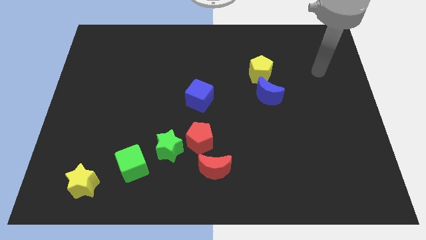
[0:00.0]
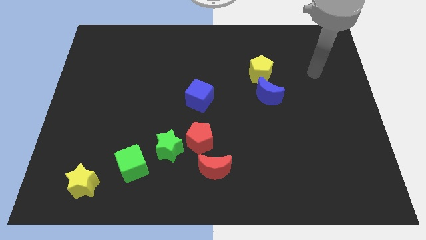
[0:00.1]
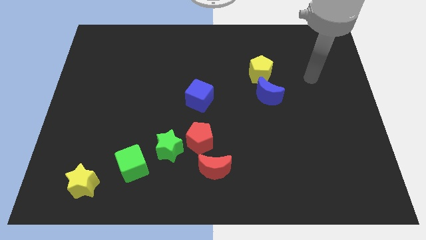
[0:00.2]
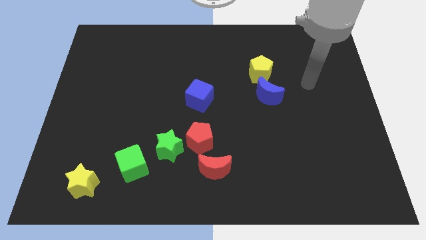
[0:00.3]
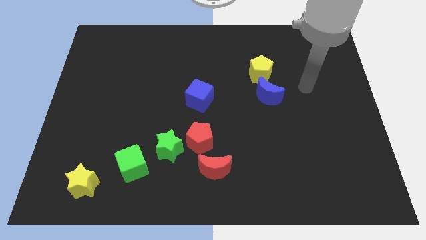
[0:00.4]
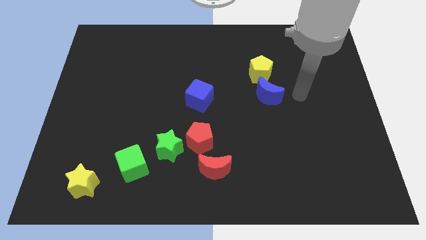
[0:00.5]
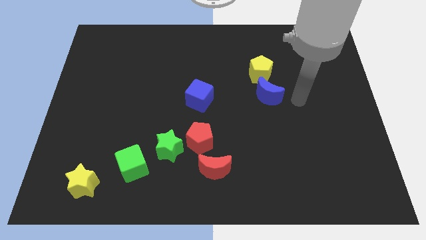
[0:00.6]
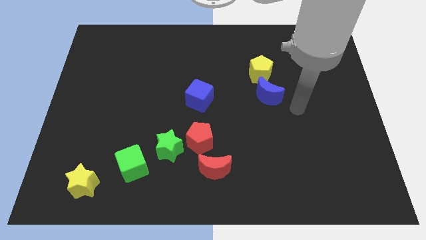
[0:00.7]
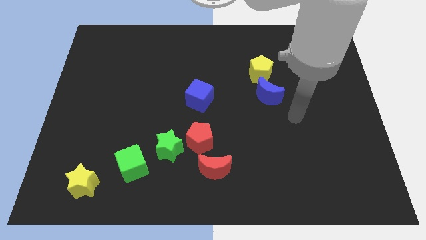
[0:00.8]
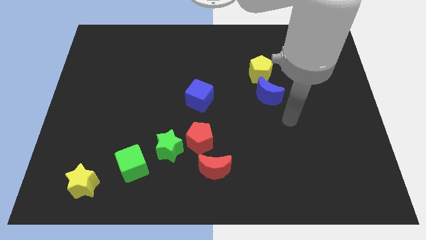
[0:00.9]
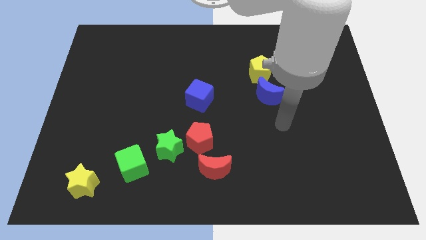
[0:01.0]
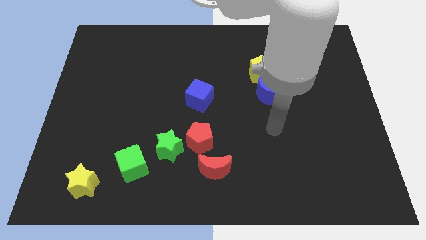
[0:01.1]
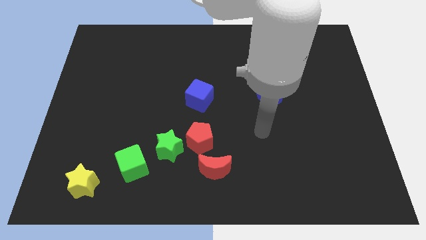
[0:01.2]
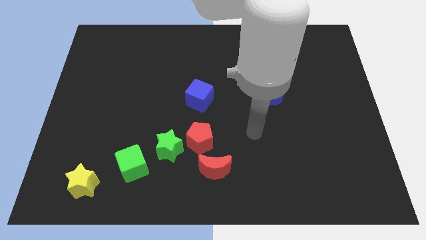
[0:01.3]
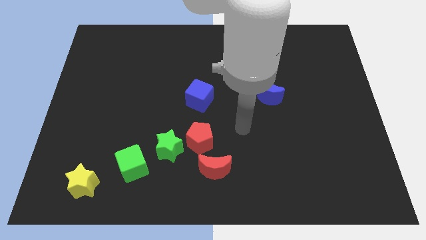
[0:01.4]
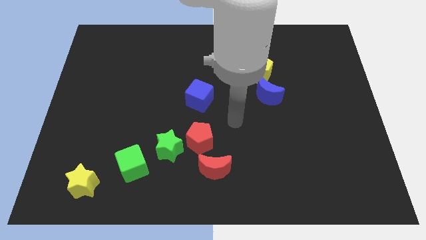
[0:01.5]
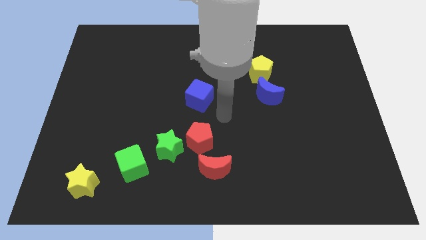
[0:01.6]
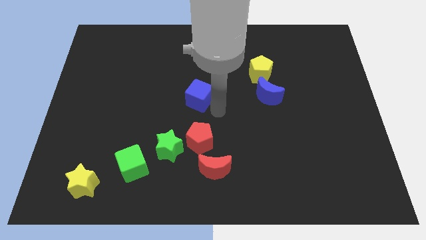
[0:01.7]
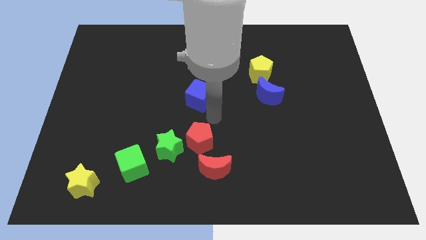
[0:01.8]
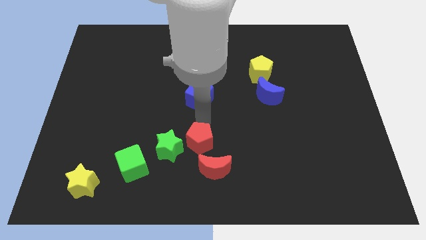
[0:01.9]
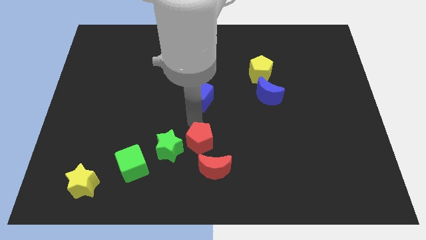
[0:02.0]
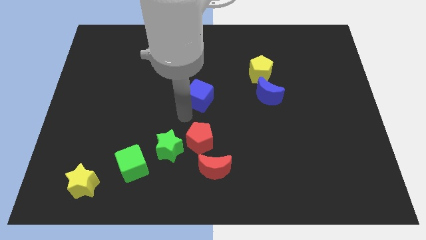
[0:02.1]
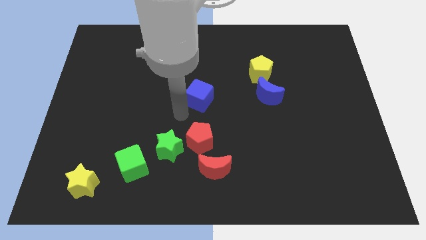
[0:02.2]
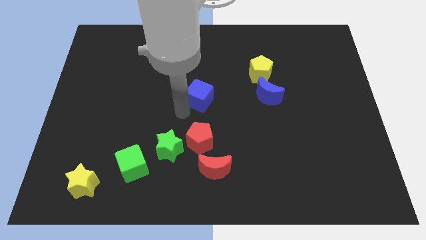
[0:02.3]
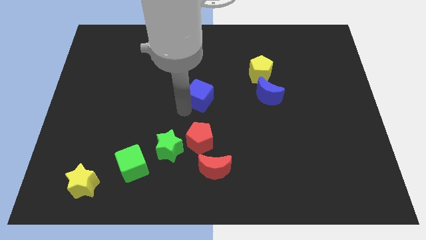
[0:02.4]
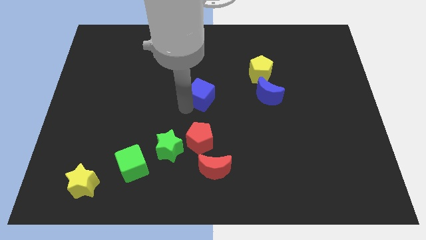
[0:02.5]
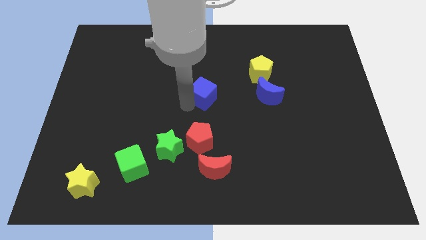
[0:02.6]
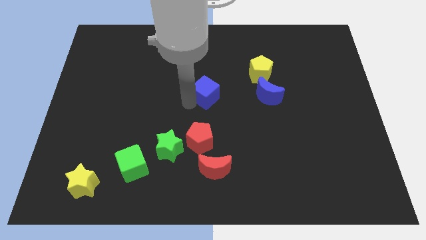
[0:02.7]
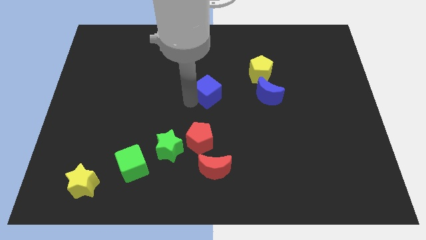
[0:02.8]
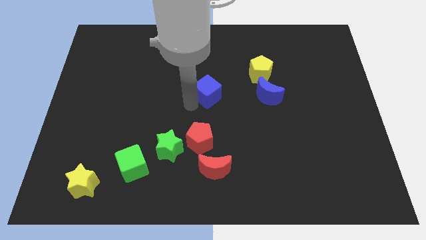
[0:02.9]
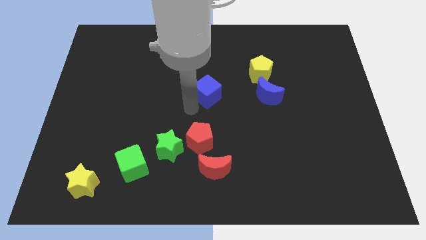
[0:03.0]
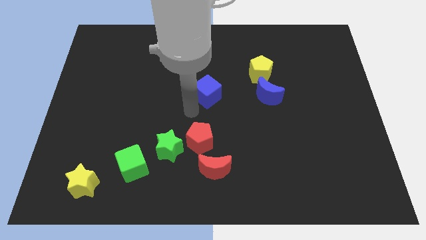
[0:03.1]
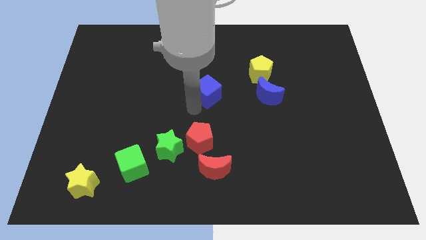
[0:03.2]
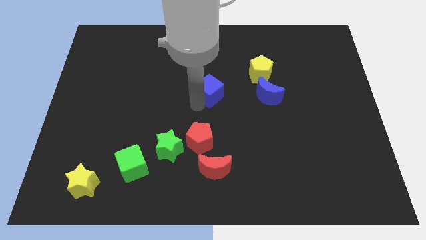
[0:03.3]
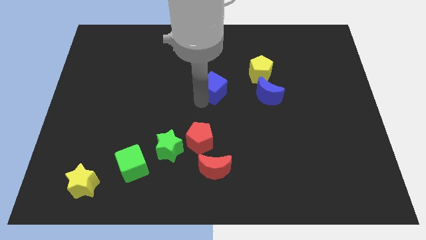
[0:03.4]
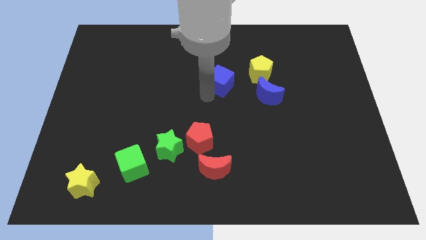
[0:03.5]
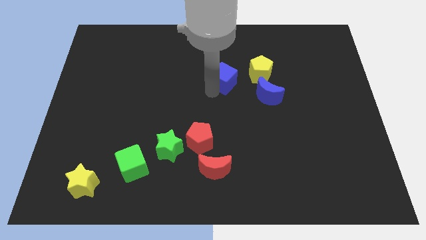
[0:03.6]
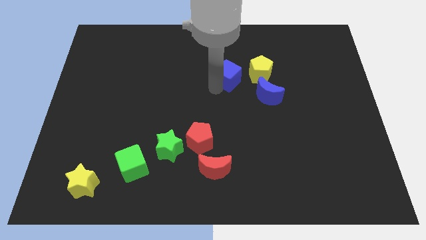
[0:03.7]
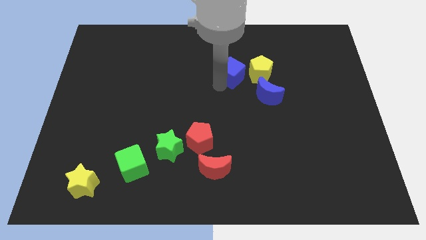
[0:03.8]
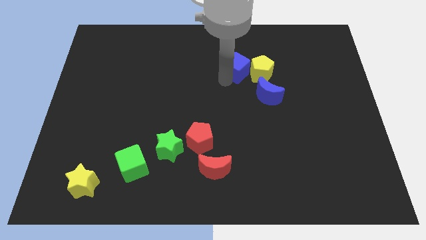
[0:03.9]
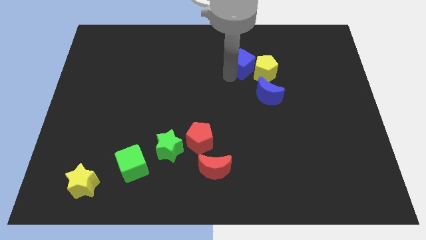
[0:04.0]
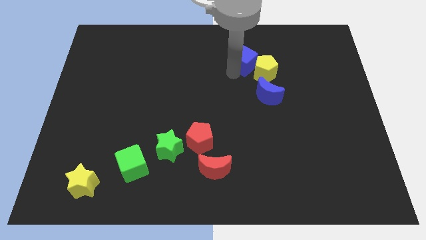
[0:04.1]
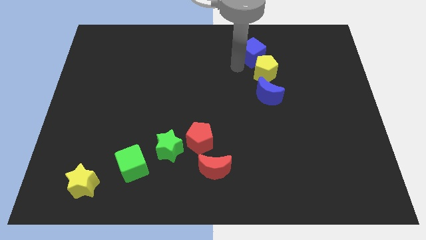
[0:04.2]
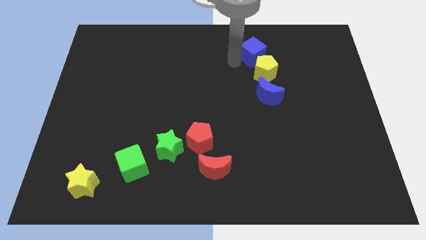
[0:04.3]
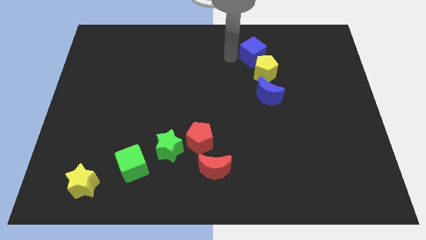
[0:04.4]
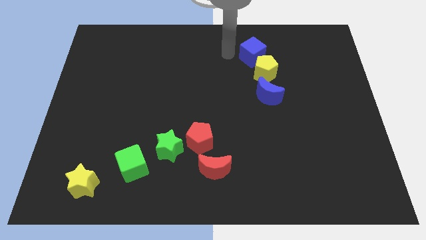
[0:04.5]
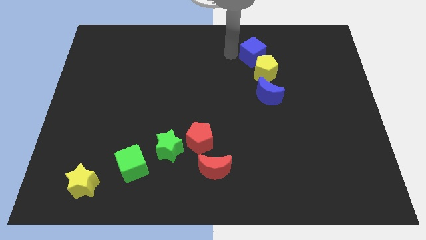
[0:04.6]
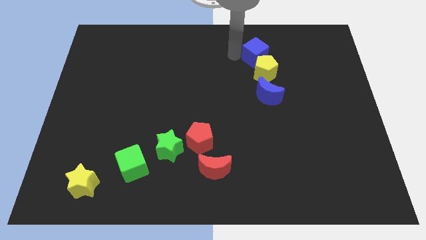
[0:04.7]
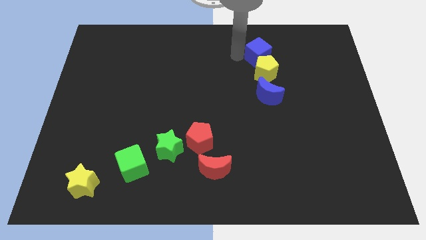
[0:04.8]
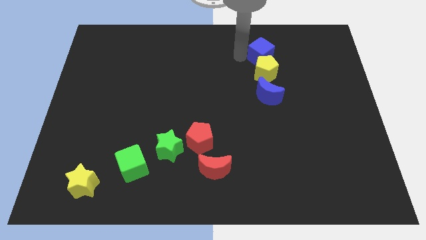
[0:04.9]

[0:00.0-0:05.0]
push the blue cube to the top right side of the yellow pentagon

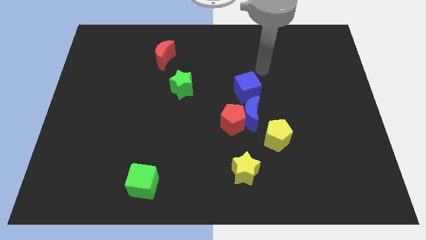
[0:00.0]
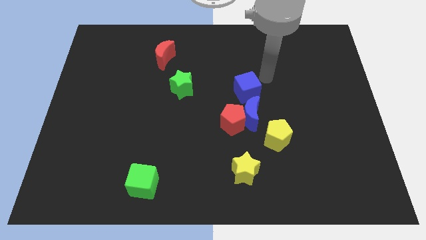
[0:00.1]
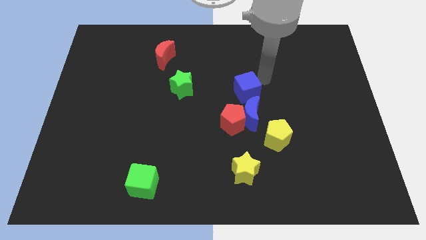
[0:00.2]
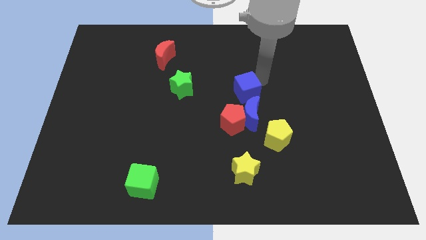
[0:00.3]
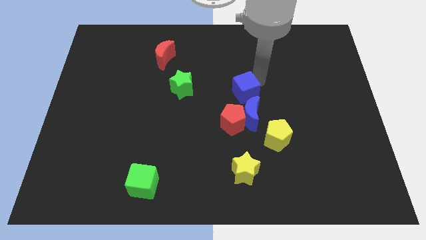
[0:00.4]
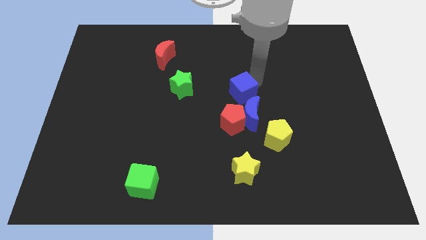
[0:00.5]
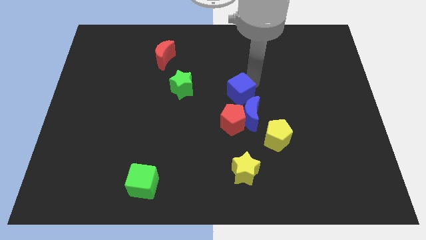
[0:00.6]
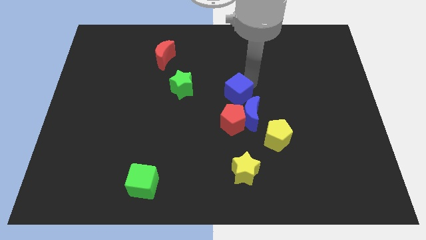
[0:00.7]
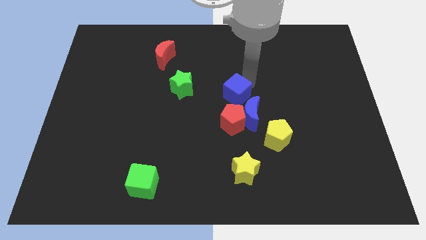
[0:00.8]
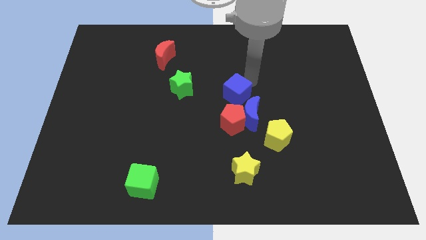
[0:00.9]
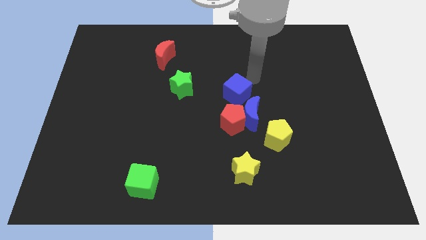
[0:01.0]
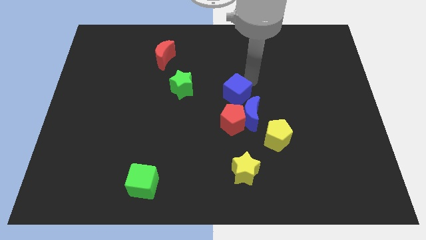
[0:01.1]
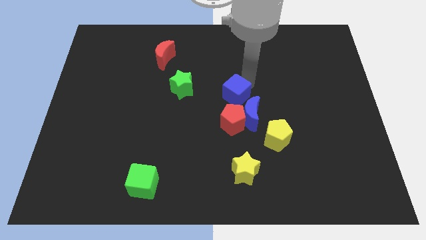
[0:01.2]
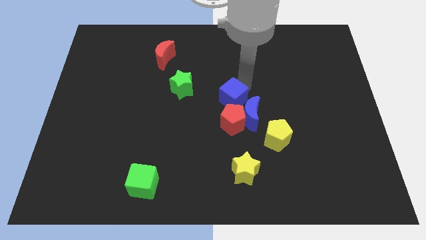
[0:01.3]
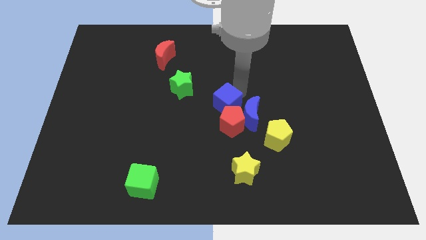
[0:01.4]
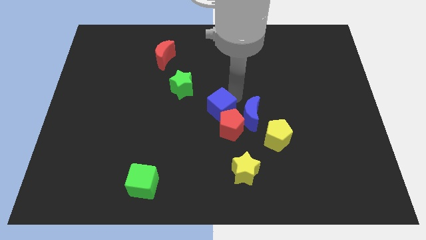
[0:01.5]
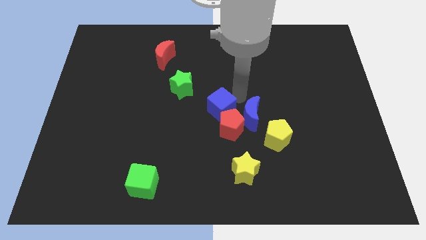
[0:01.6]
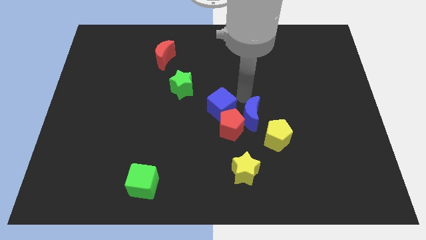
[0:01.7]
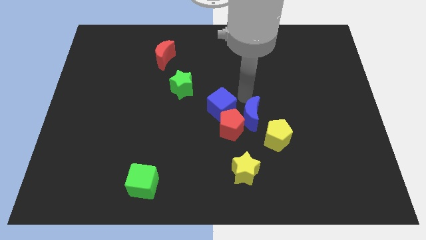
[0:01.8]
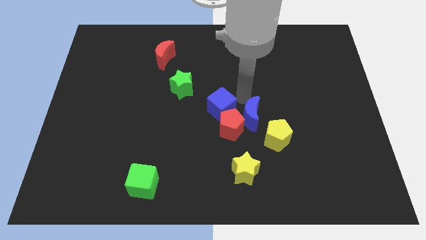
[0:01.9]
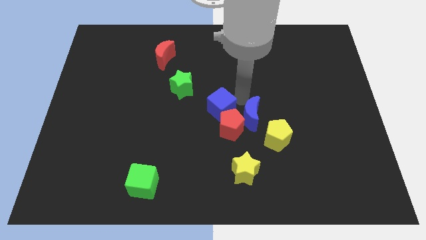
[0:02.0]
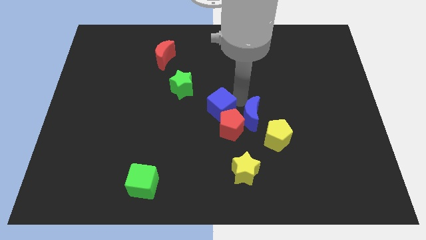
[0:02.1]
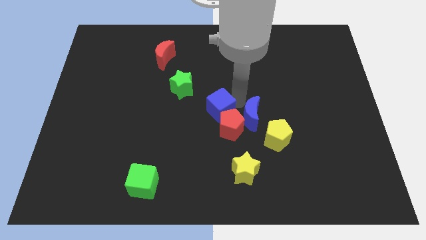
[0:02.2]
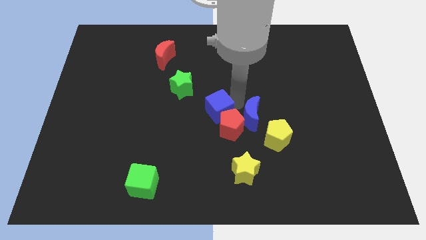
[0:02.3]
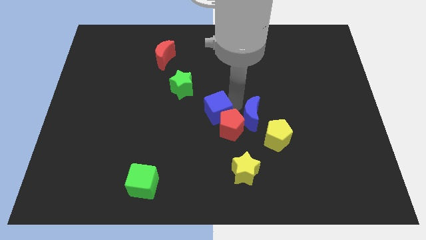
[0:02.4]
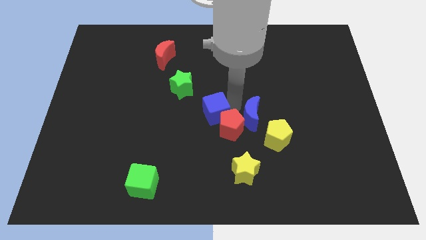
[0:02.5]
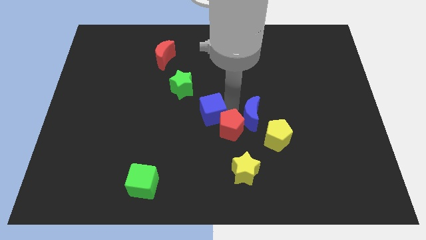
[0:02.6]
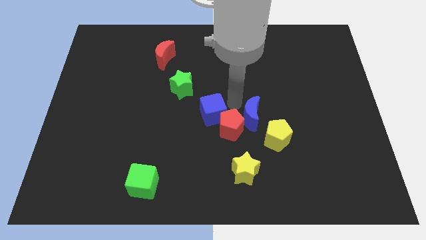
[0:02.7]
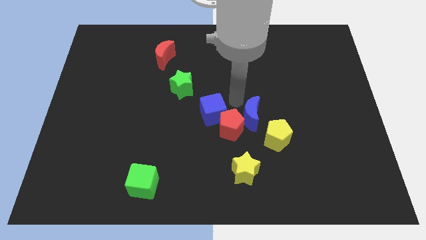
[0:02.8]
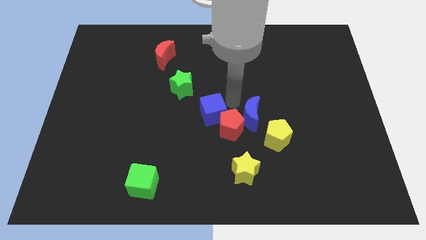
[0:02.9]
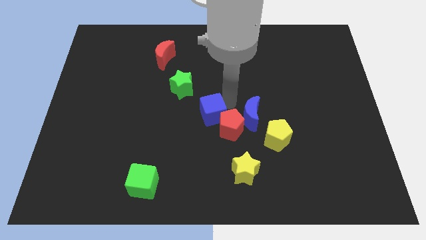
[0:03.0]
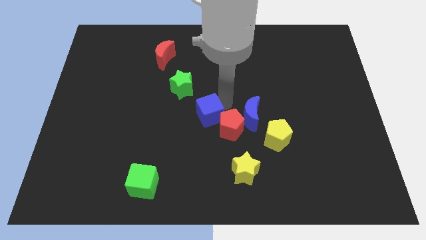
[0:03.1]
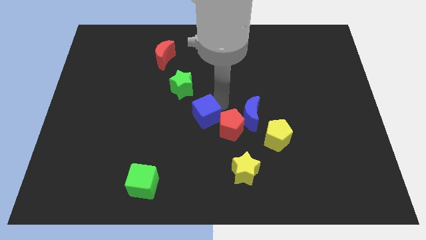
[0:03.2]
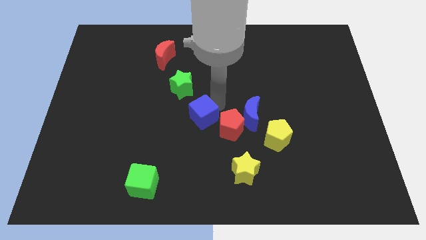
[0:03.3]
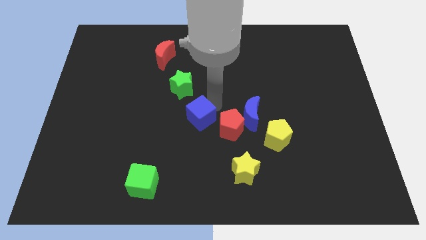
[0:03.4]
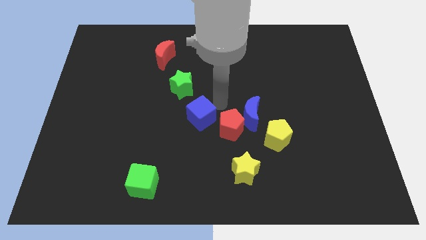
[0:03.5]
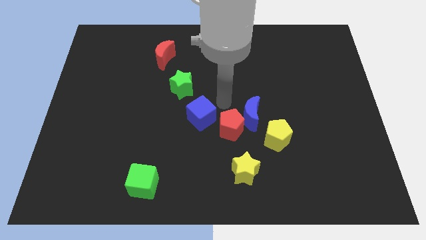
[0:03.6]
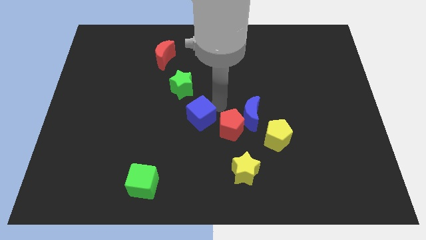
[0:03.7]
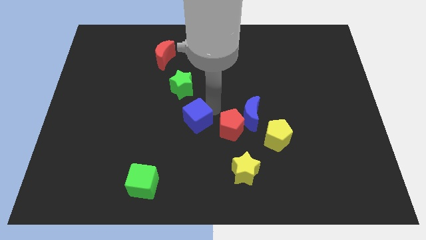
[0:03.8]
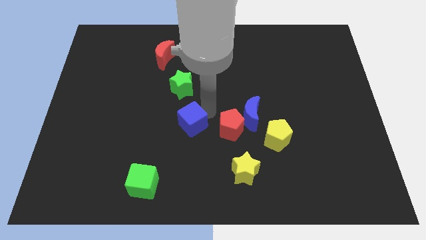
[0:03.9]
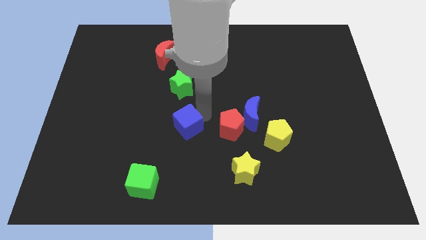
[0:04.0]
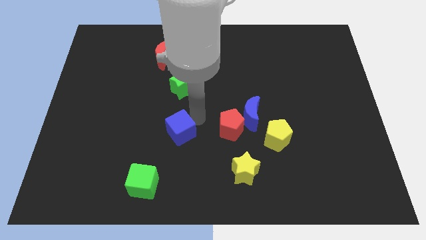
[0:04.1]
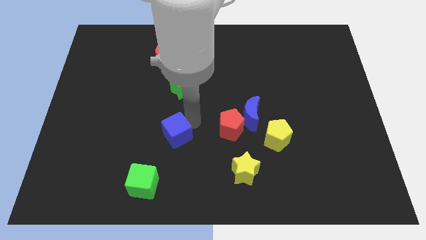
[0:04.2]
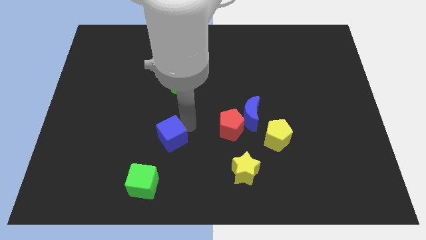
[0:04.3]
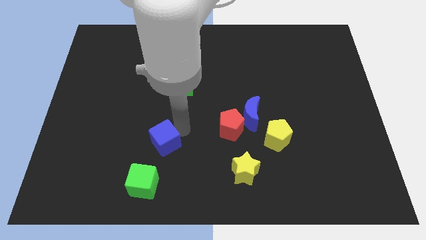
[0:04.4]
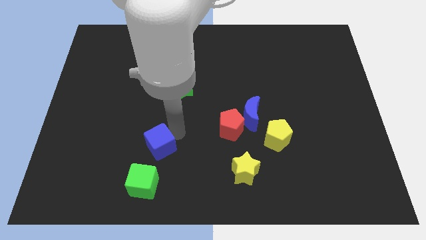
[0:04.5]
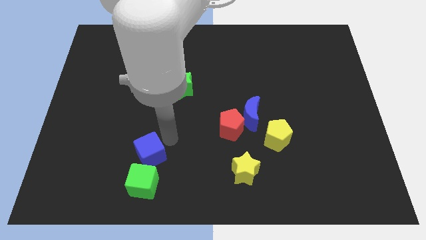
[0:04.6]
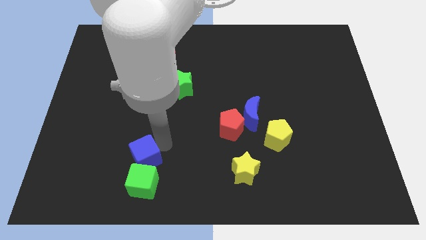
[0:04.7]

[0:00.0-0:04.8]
slide the blue cube to the top left of the green cube
